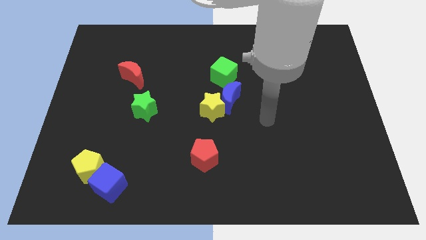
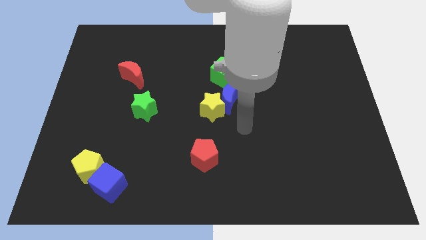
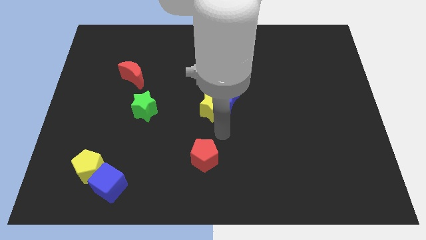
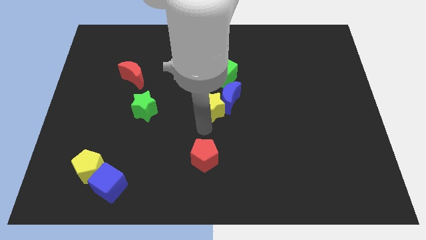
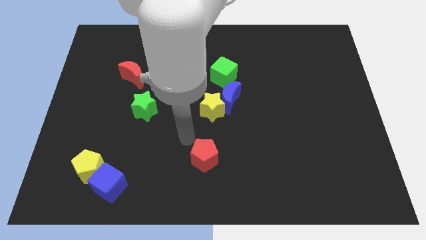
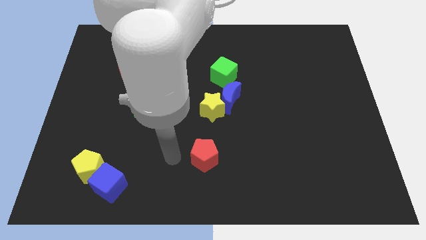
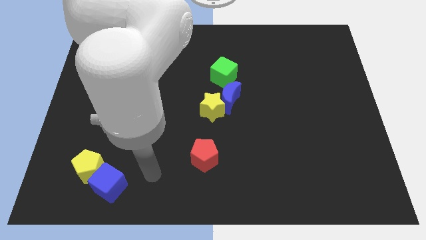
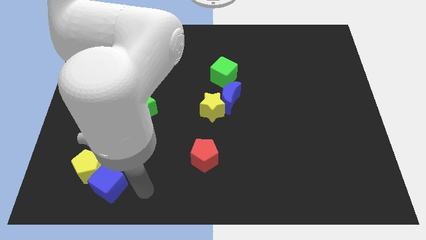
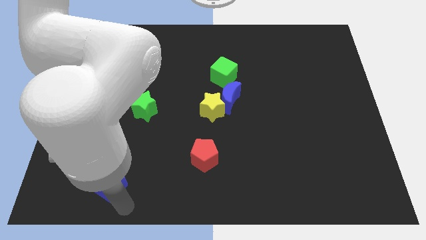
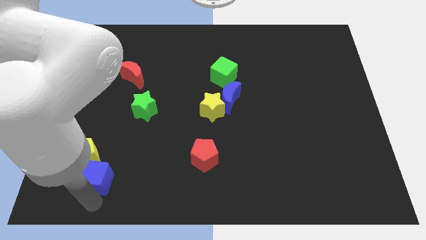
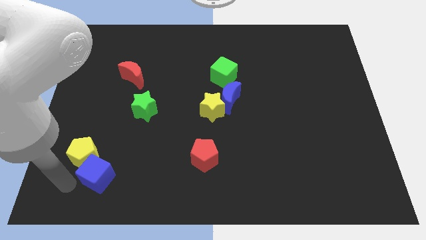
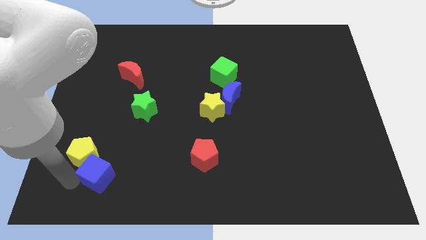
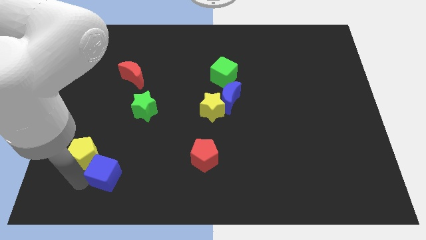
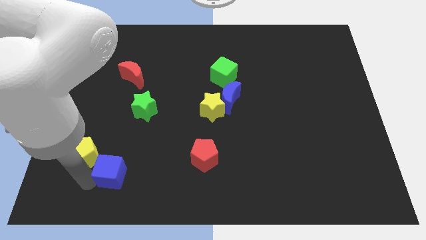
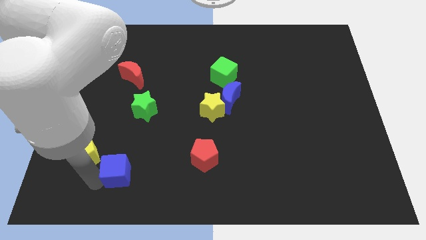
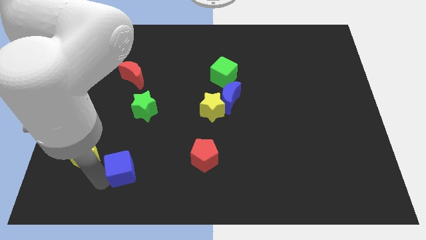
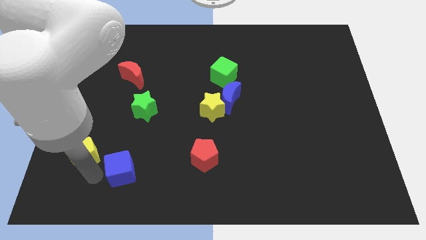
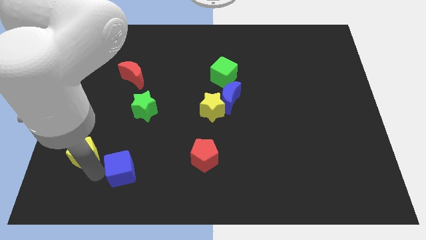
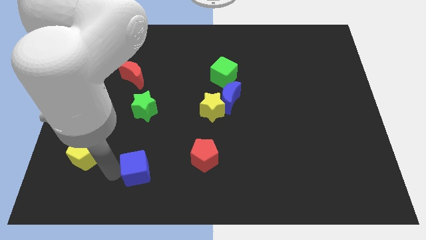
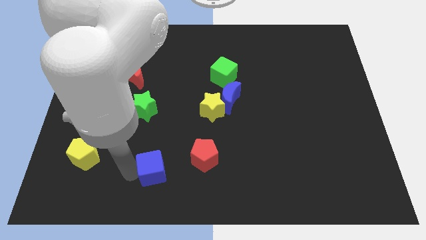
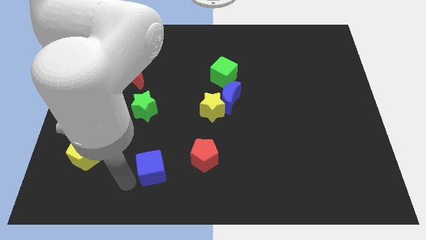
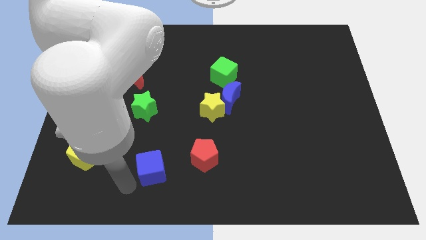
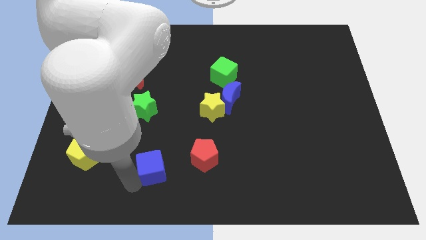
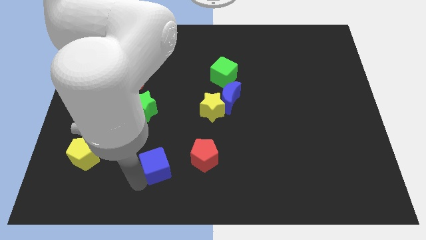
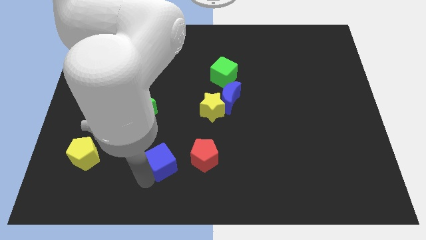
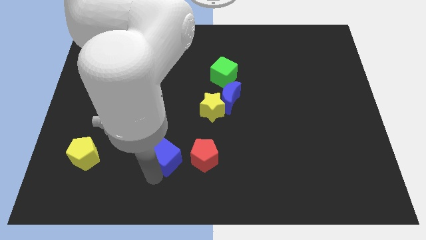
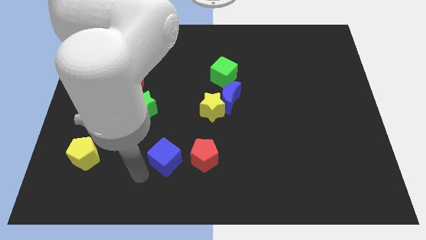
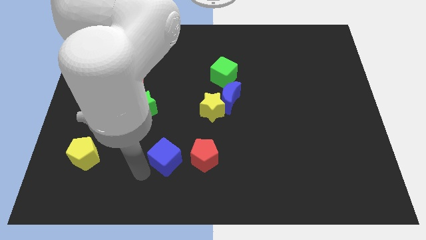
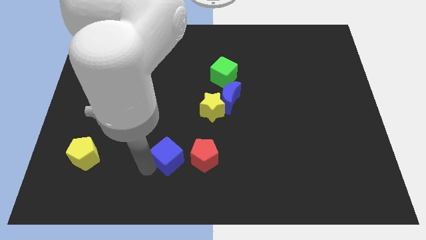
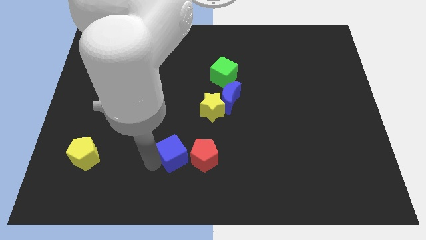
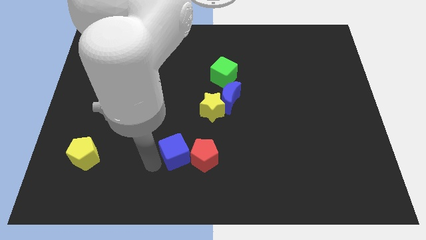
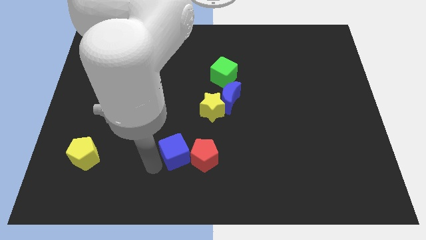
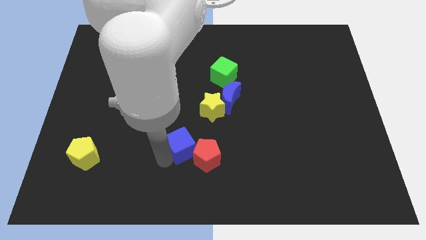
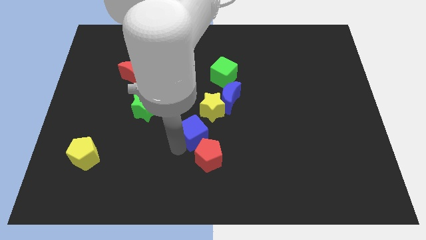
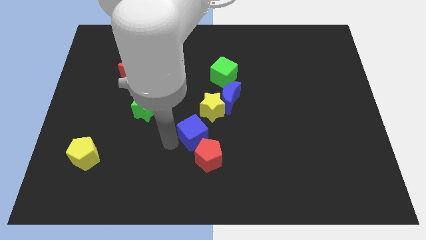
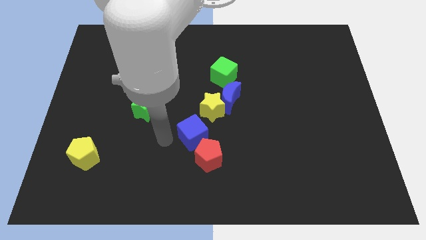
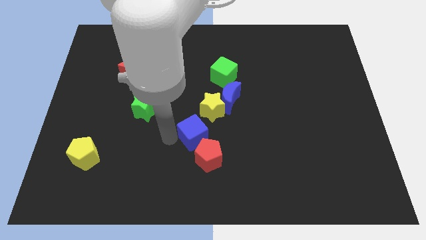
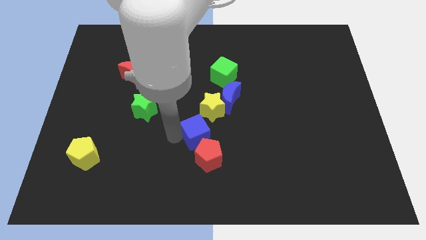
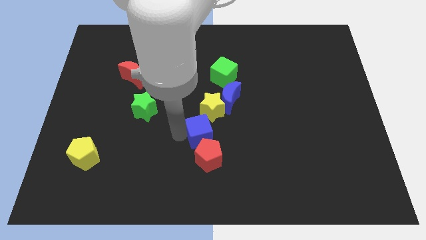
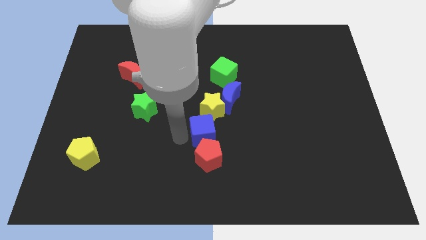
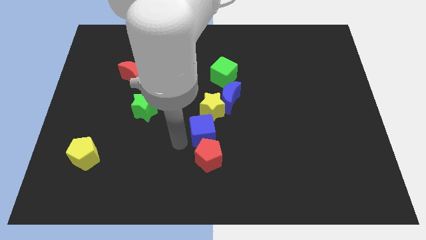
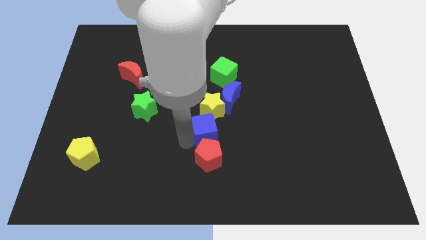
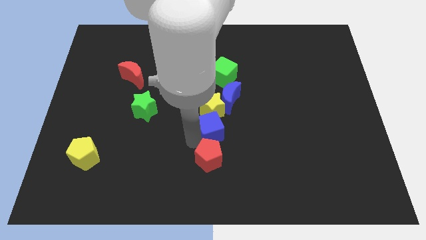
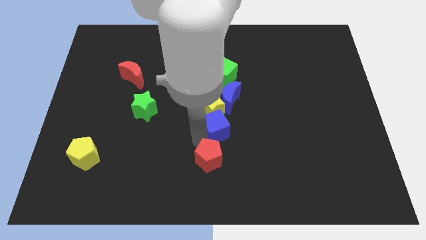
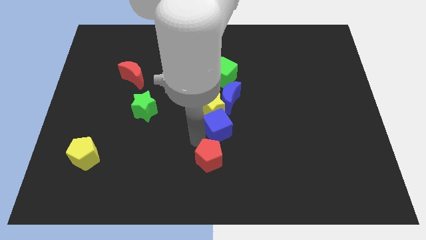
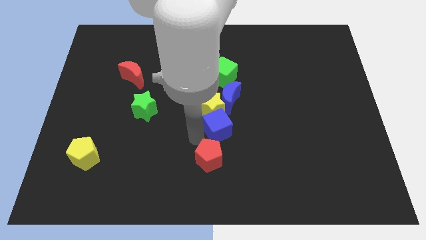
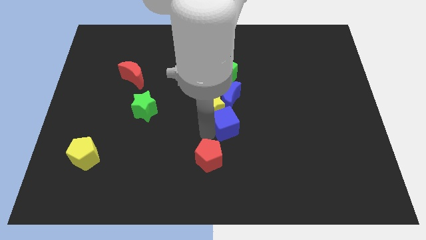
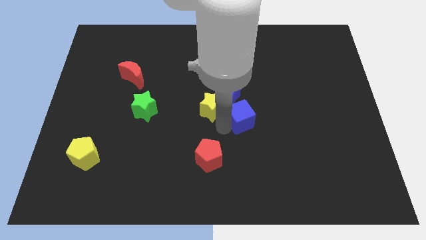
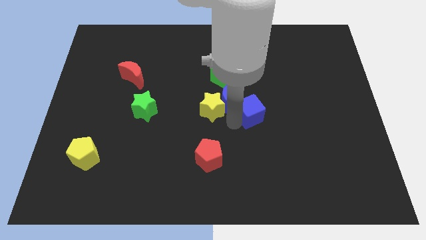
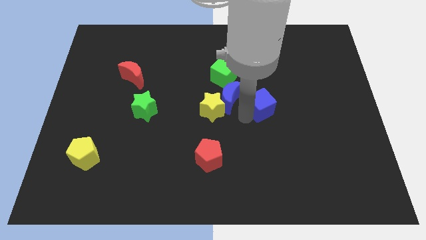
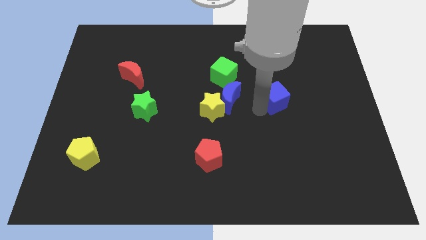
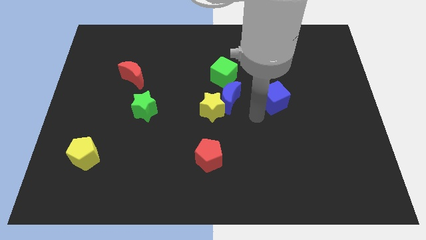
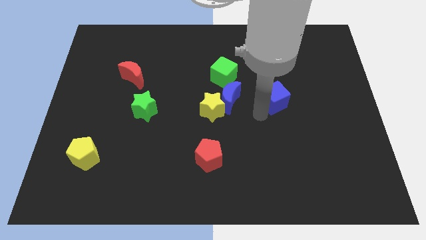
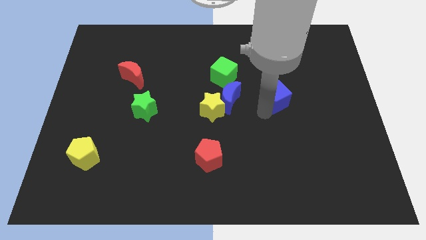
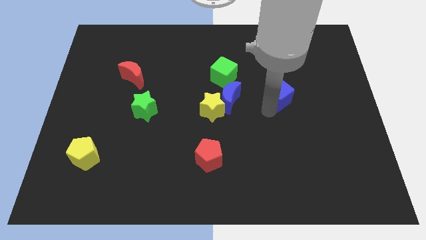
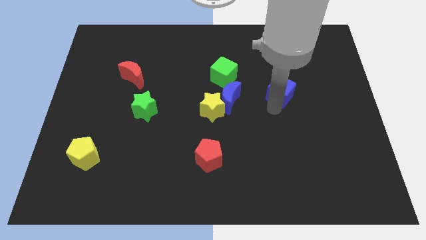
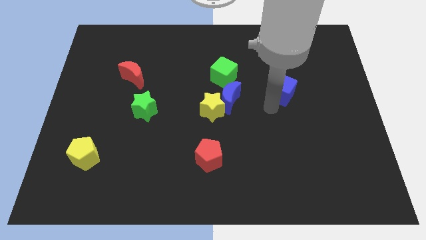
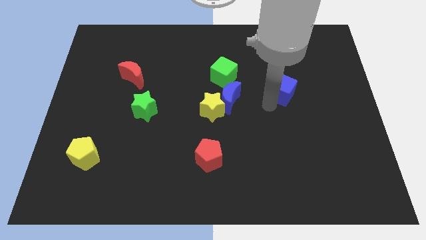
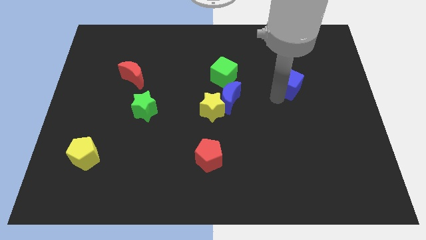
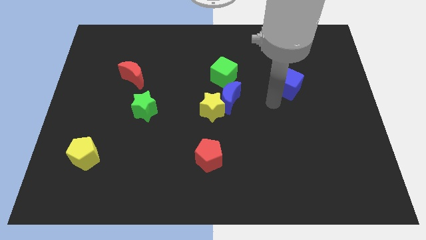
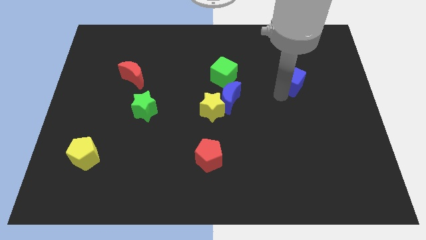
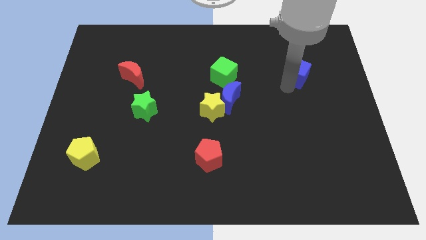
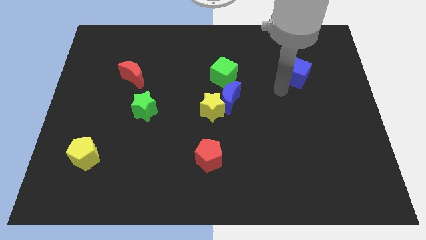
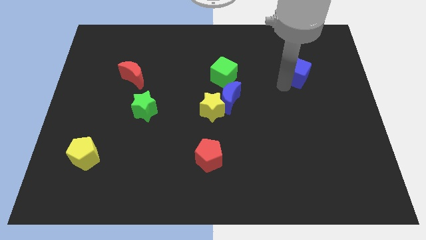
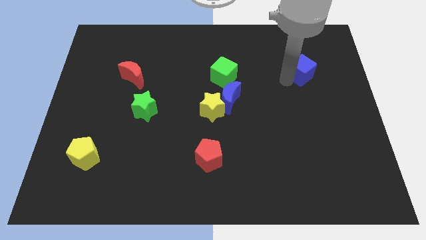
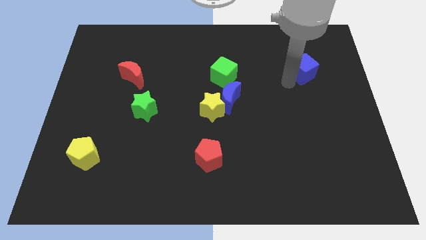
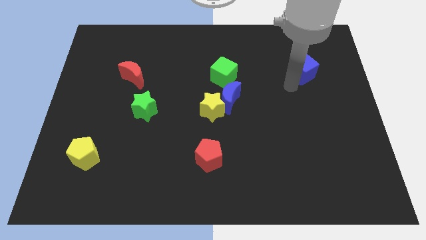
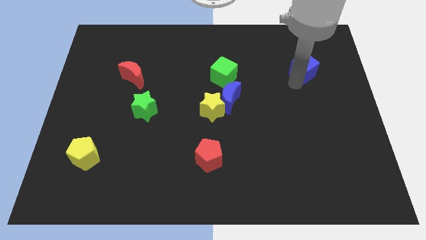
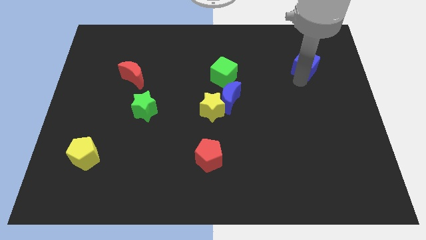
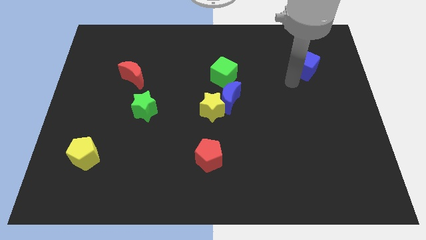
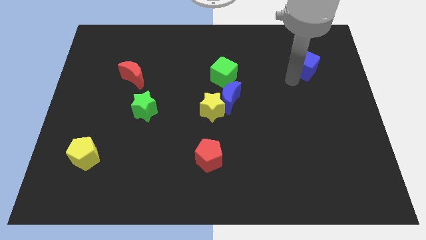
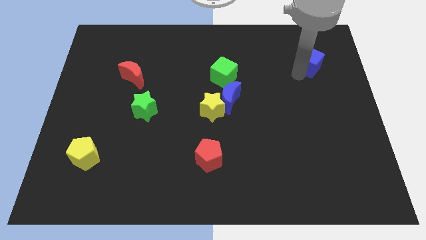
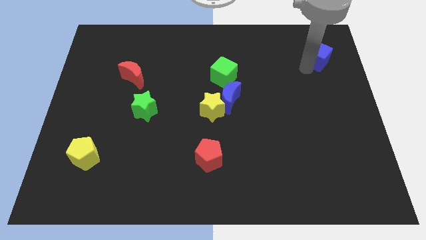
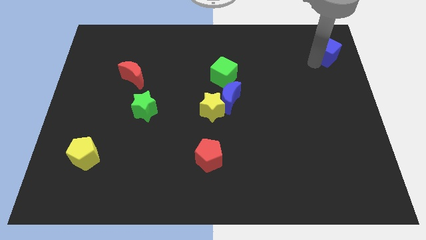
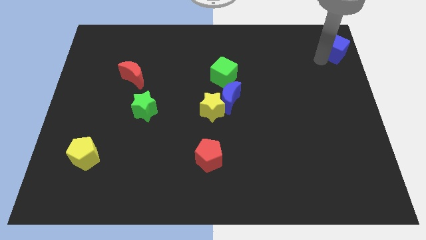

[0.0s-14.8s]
put the blue cube to the top right of the board

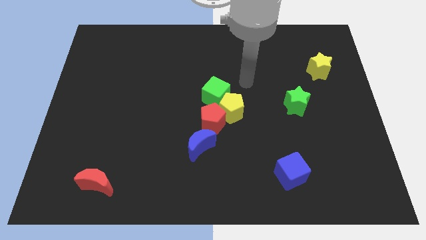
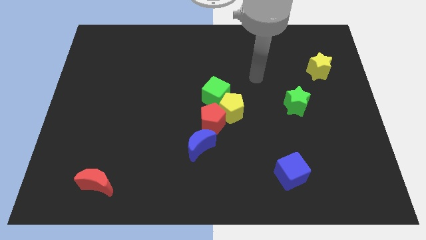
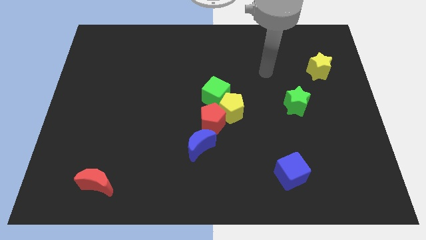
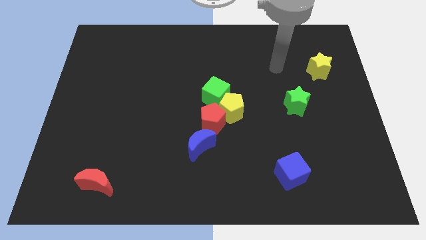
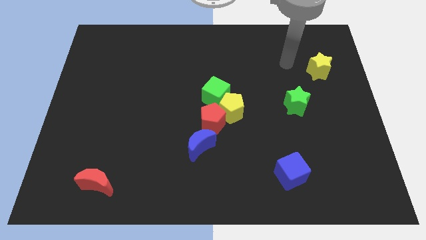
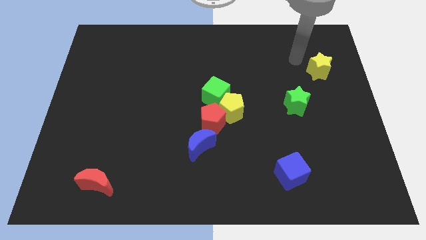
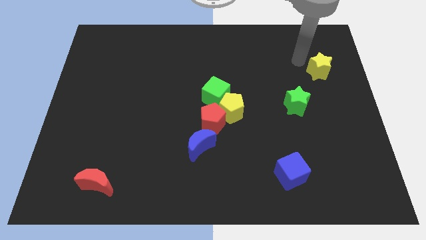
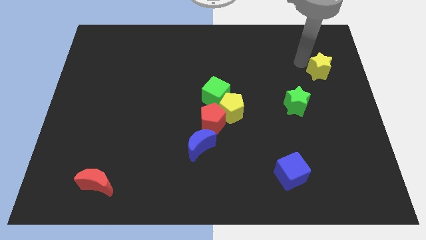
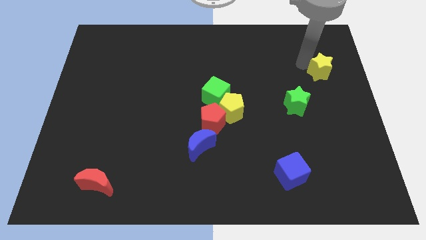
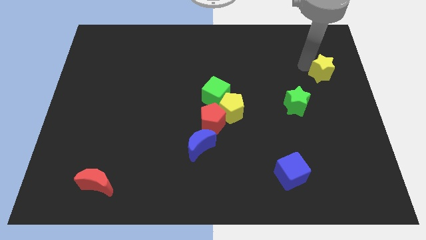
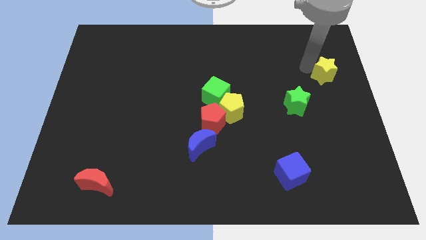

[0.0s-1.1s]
push the yellow star to the right side of the board
